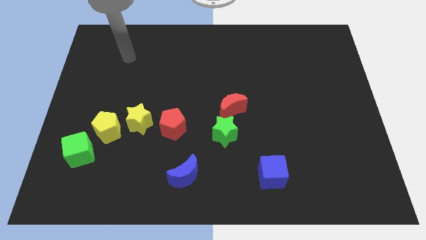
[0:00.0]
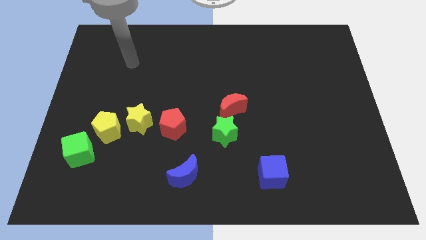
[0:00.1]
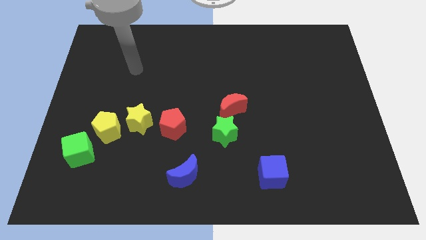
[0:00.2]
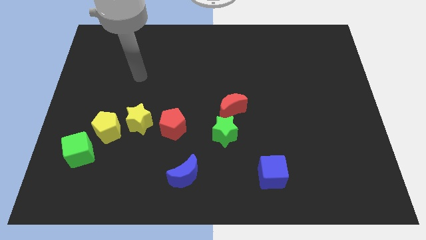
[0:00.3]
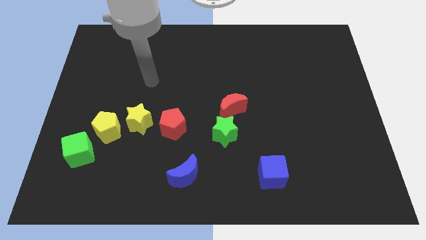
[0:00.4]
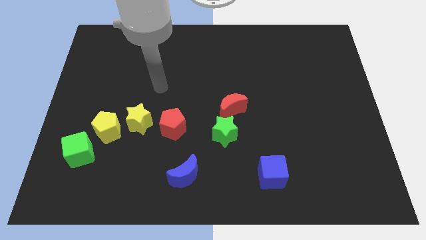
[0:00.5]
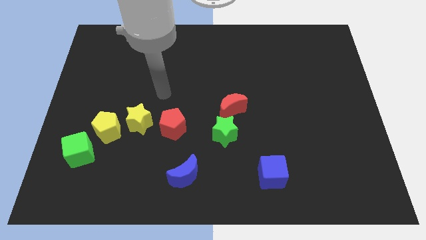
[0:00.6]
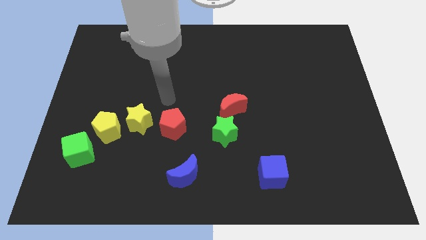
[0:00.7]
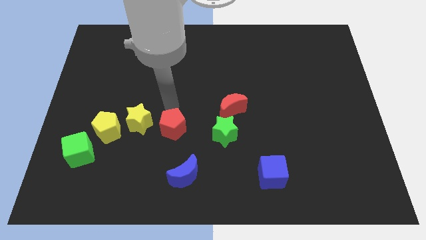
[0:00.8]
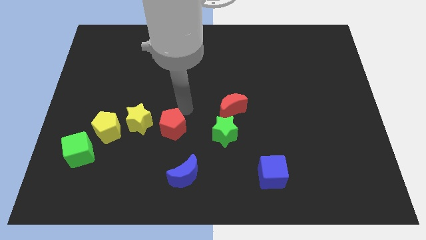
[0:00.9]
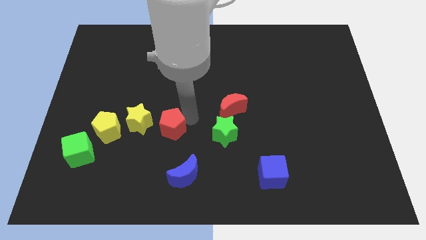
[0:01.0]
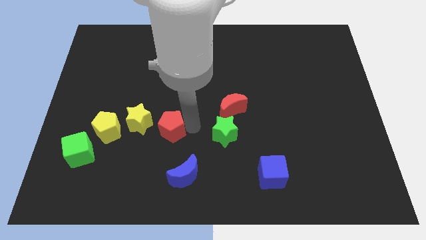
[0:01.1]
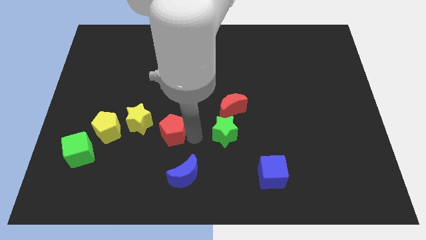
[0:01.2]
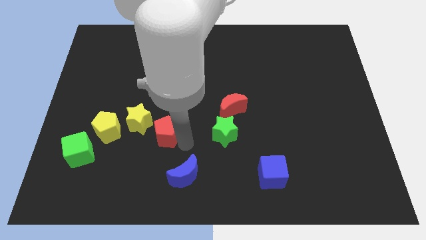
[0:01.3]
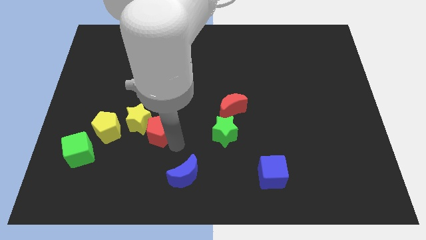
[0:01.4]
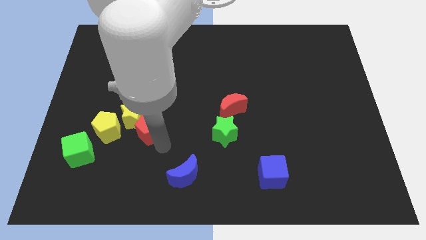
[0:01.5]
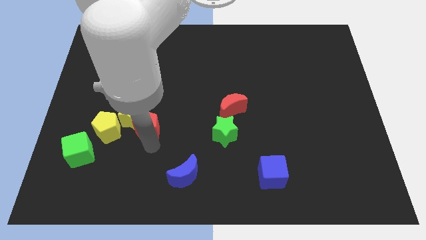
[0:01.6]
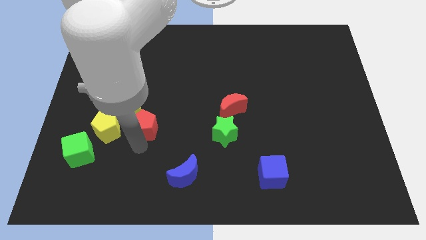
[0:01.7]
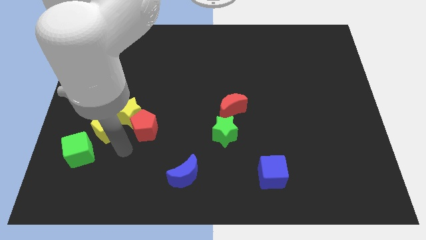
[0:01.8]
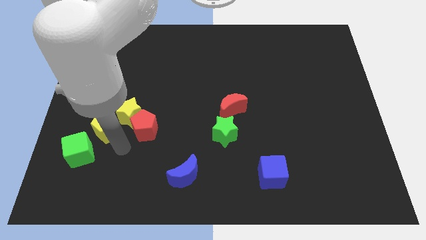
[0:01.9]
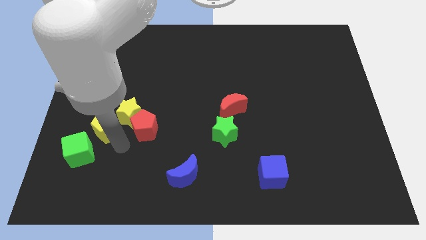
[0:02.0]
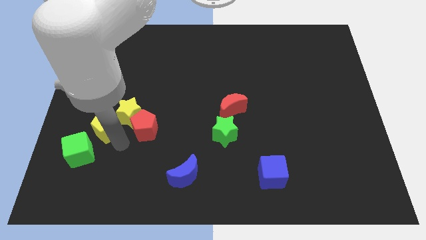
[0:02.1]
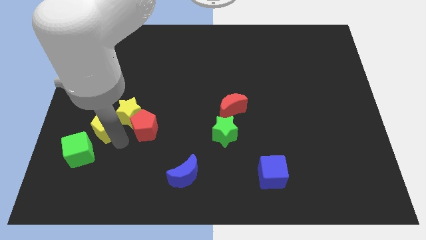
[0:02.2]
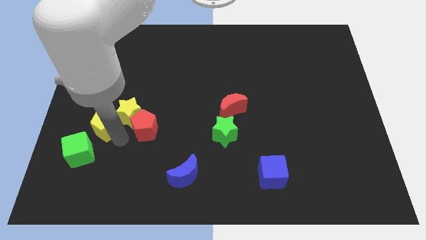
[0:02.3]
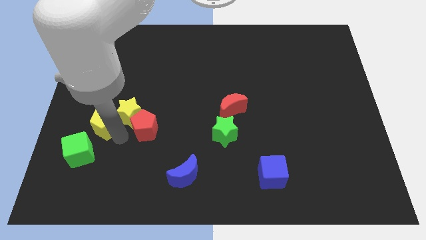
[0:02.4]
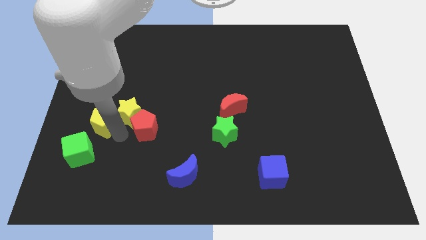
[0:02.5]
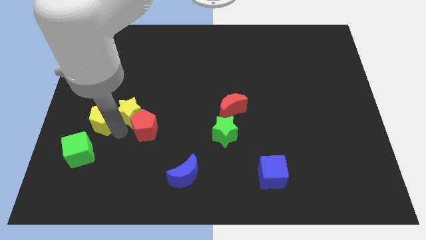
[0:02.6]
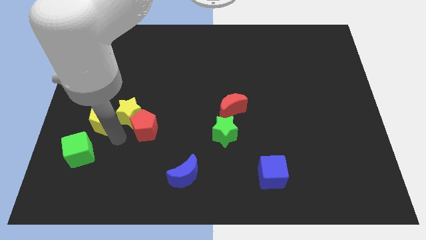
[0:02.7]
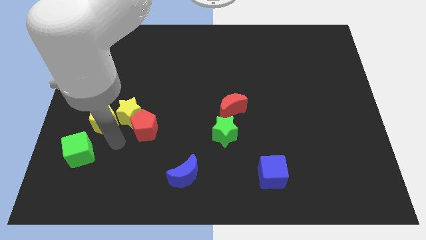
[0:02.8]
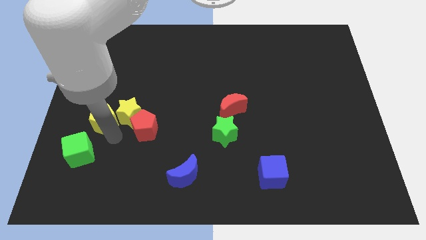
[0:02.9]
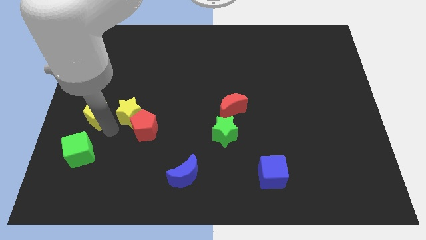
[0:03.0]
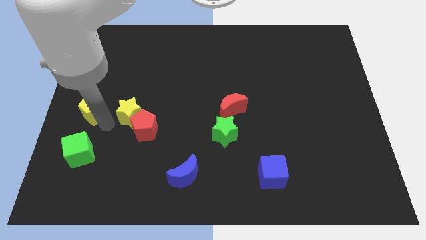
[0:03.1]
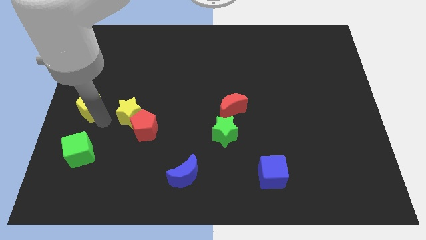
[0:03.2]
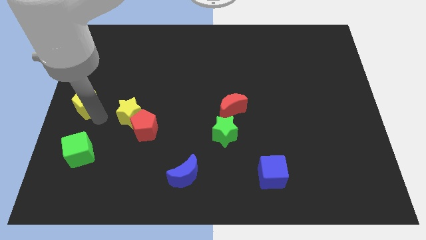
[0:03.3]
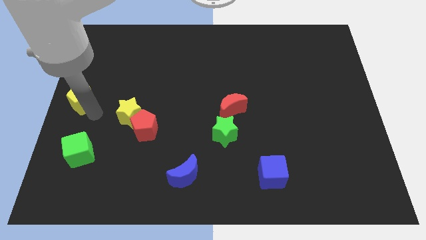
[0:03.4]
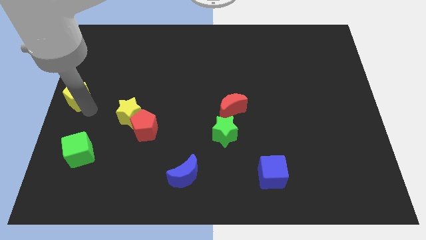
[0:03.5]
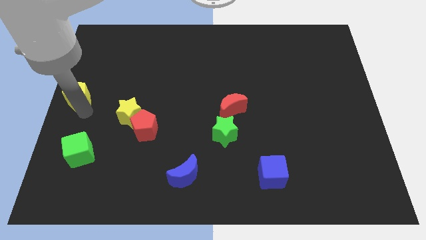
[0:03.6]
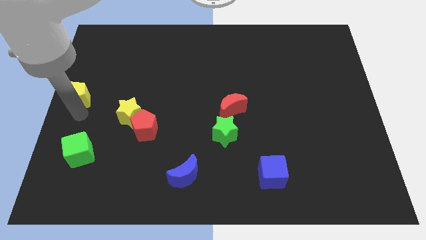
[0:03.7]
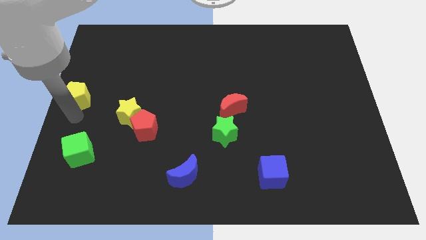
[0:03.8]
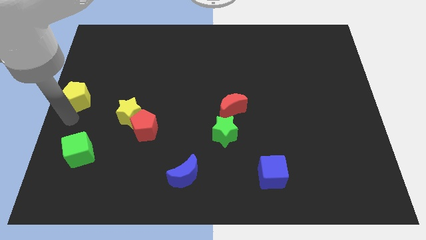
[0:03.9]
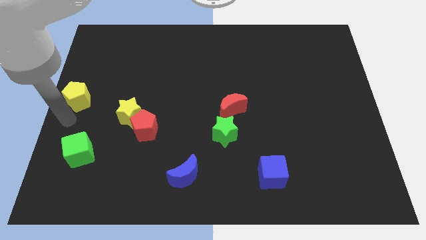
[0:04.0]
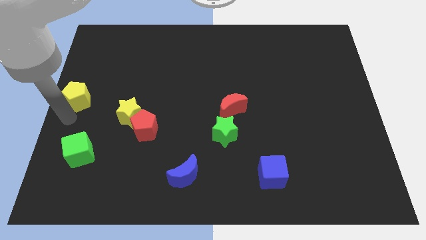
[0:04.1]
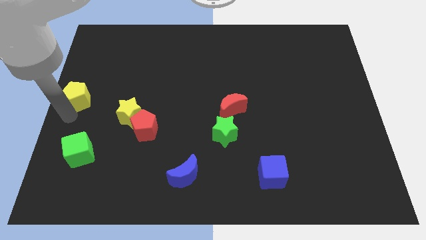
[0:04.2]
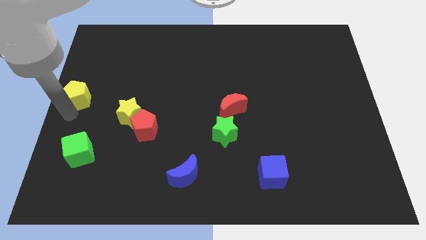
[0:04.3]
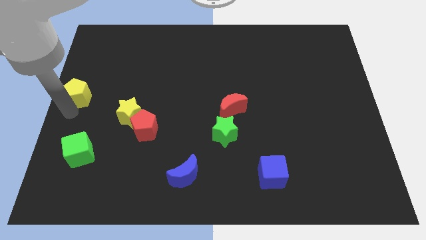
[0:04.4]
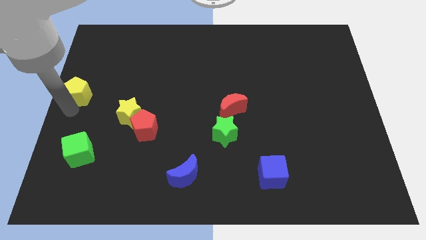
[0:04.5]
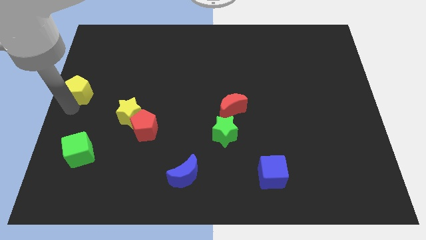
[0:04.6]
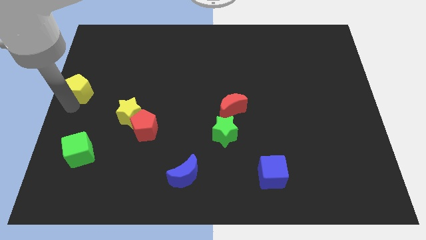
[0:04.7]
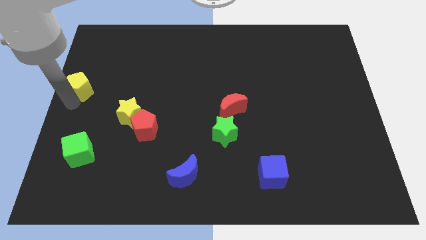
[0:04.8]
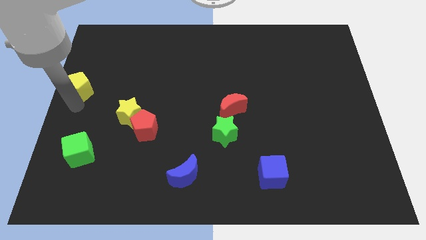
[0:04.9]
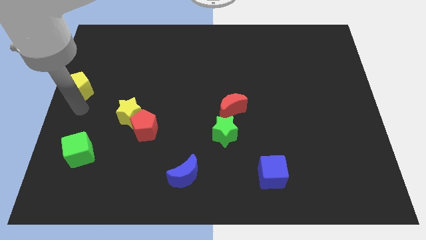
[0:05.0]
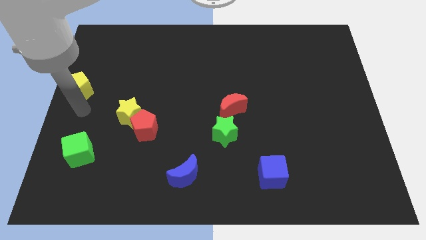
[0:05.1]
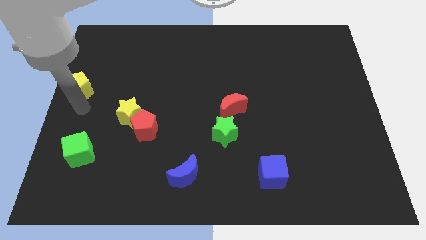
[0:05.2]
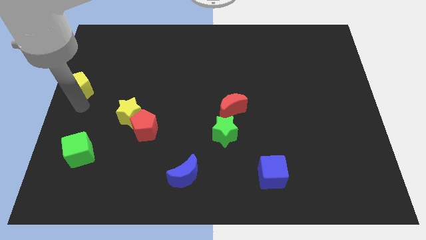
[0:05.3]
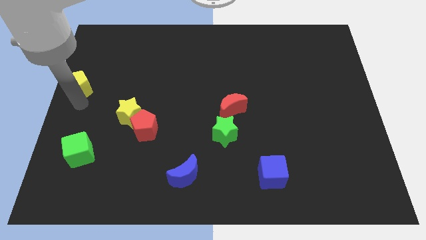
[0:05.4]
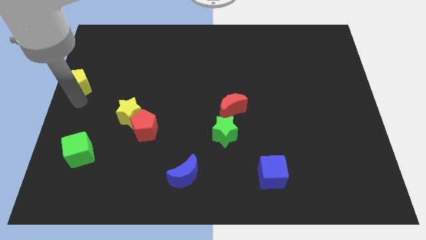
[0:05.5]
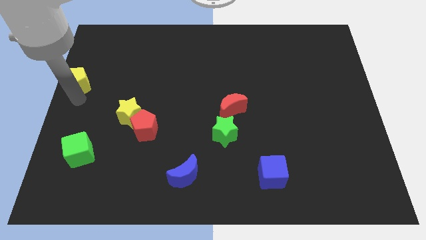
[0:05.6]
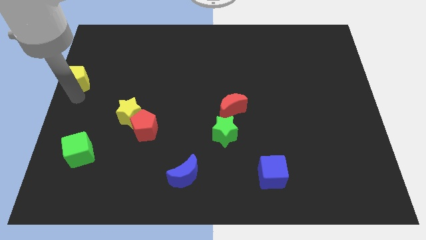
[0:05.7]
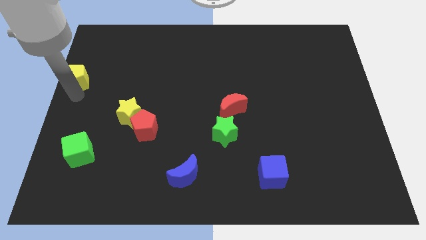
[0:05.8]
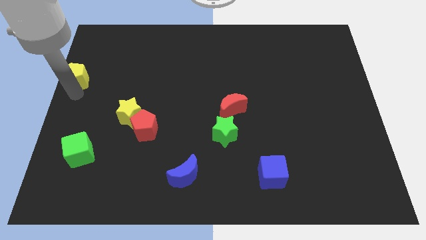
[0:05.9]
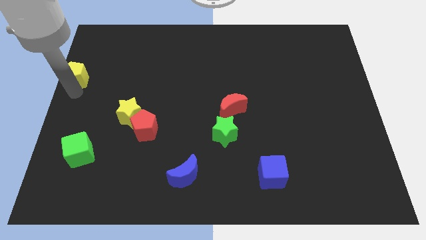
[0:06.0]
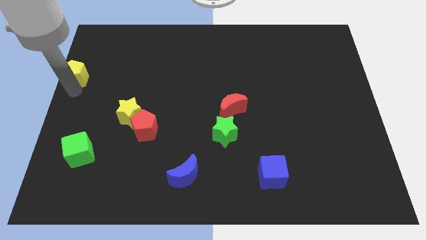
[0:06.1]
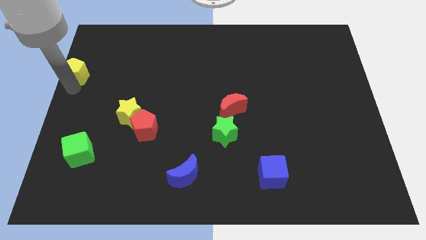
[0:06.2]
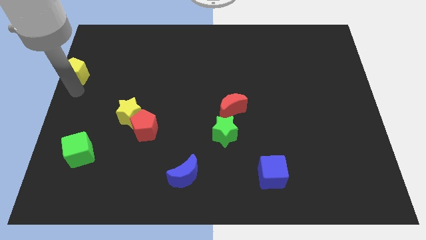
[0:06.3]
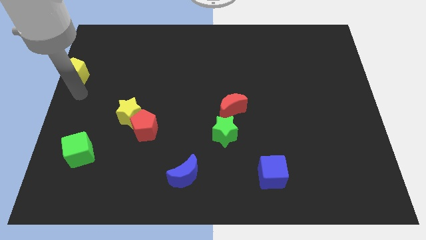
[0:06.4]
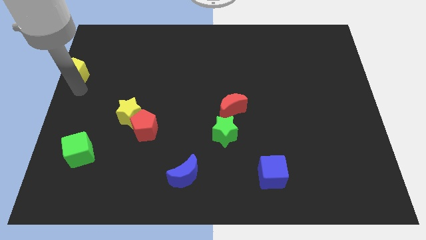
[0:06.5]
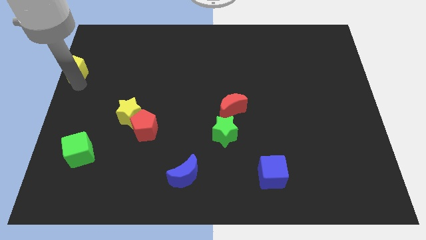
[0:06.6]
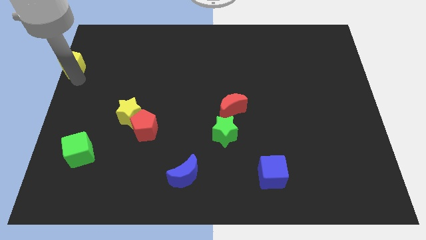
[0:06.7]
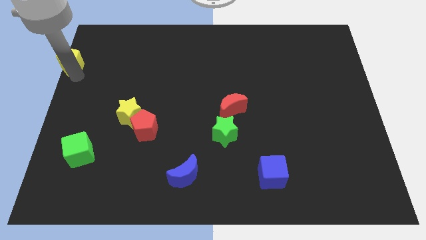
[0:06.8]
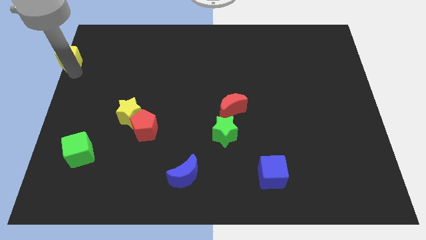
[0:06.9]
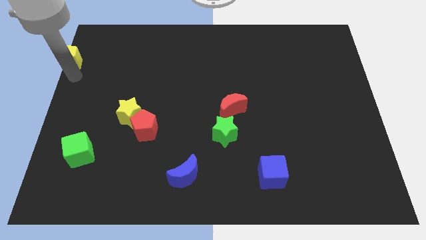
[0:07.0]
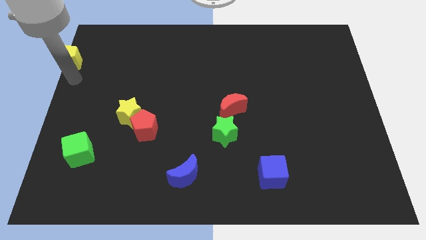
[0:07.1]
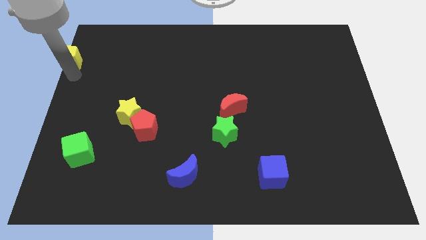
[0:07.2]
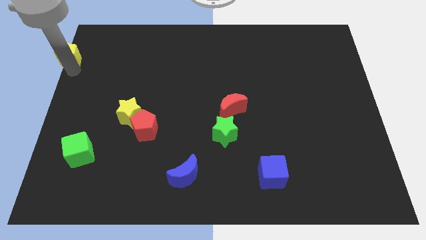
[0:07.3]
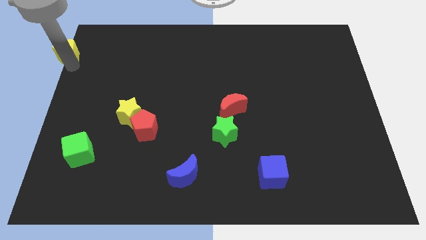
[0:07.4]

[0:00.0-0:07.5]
move the yellow pentagon to the upper left corner

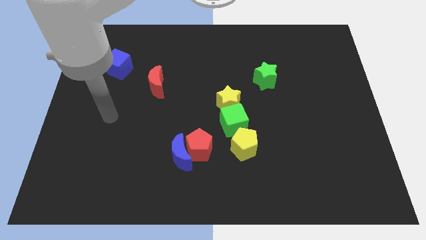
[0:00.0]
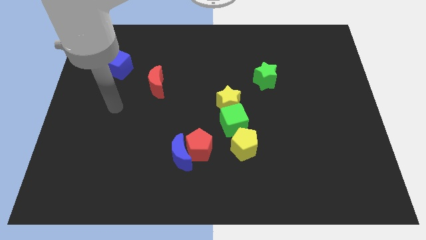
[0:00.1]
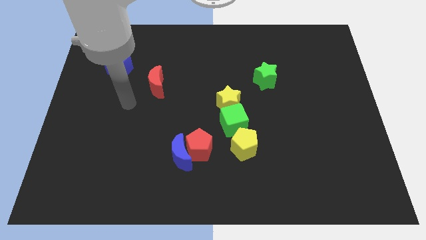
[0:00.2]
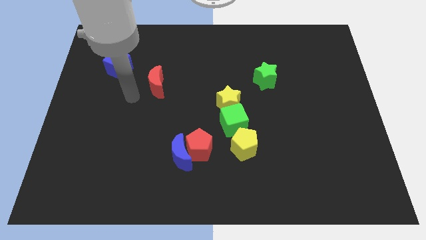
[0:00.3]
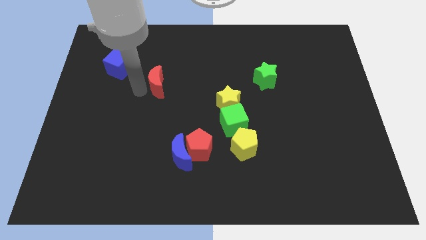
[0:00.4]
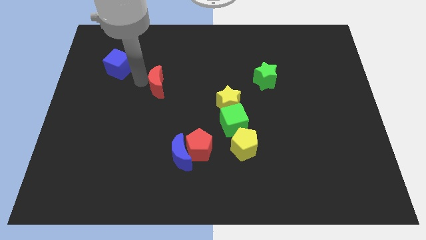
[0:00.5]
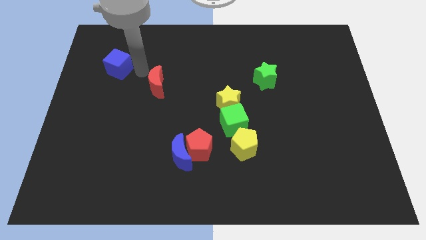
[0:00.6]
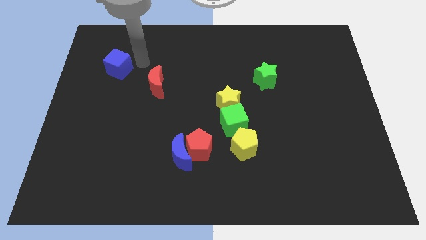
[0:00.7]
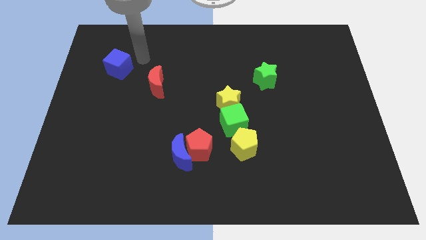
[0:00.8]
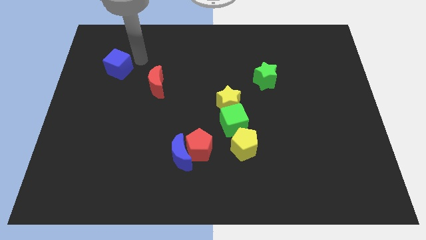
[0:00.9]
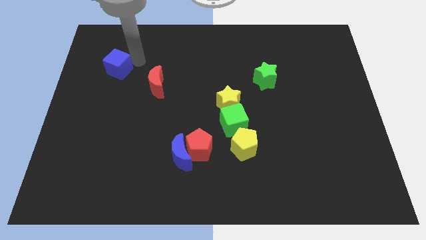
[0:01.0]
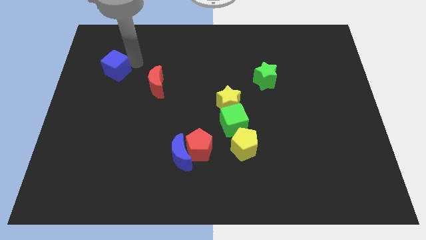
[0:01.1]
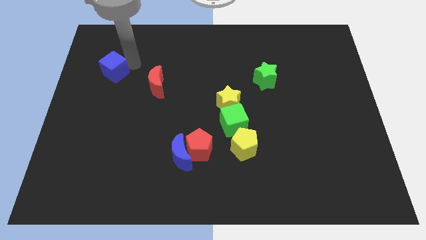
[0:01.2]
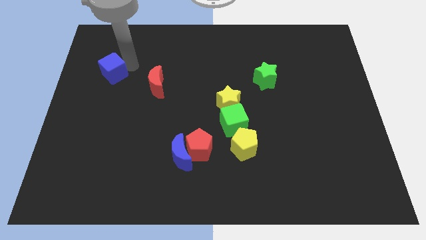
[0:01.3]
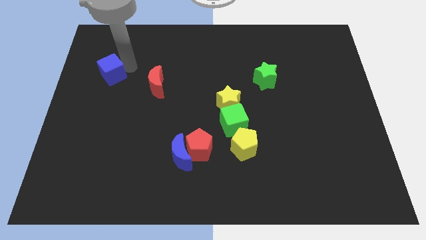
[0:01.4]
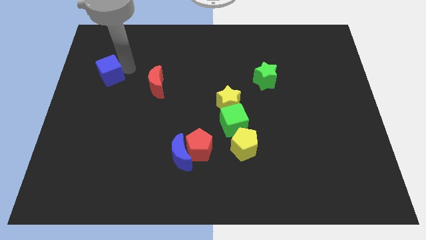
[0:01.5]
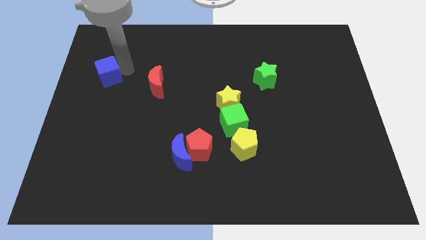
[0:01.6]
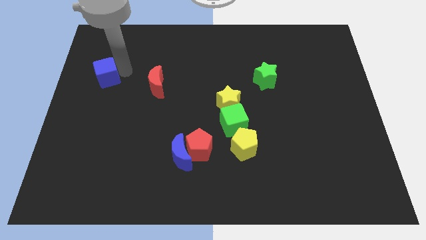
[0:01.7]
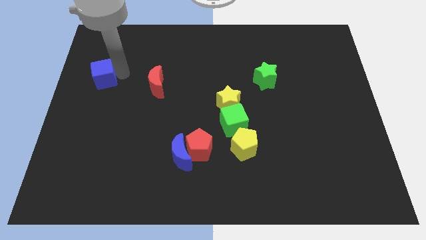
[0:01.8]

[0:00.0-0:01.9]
put the blue cube to the center left
